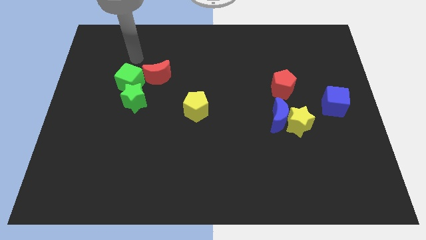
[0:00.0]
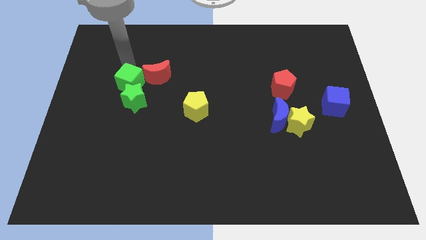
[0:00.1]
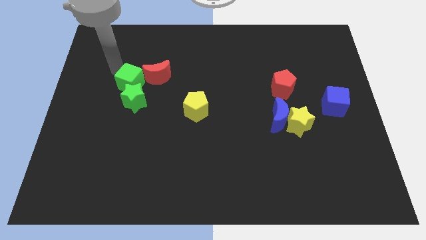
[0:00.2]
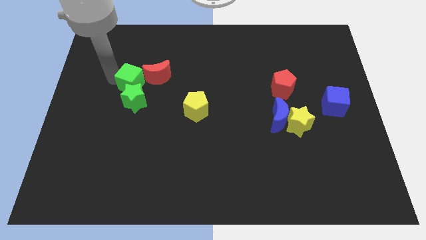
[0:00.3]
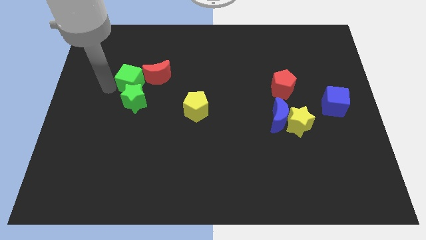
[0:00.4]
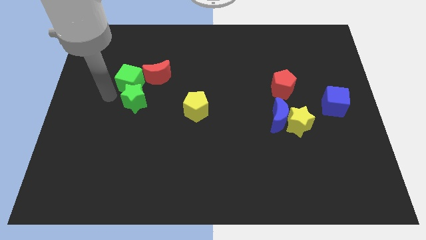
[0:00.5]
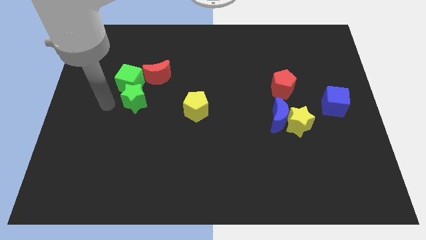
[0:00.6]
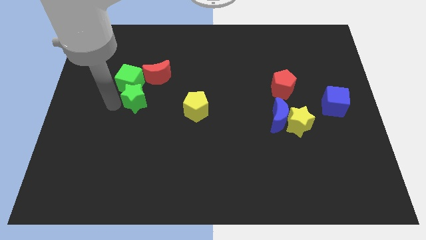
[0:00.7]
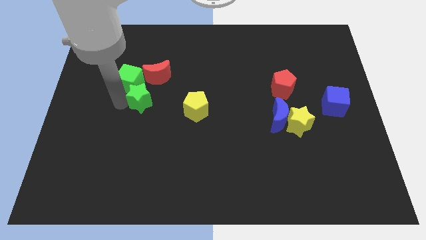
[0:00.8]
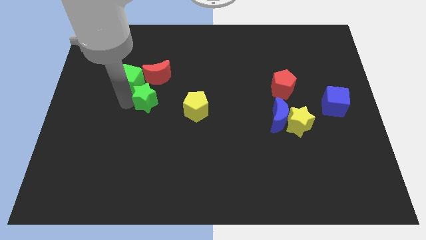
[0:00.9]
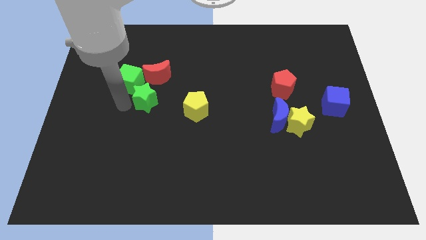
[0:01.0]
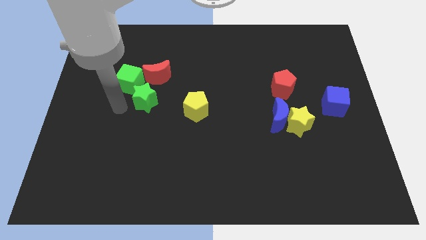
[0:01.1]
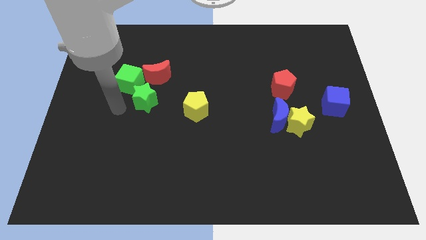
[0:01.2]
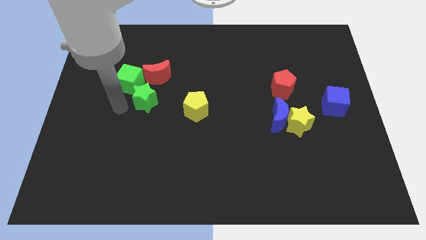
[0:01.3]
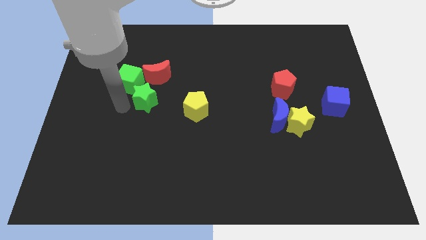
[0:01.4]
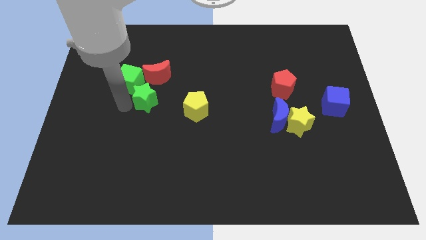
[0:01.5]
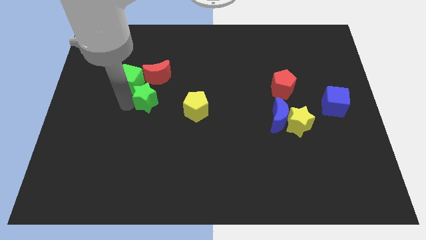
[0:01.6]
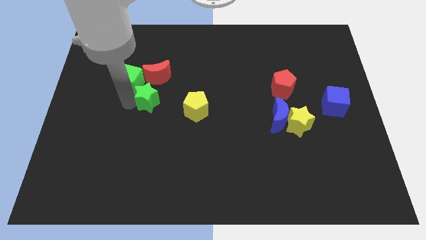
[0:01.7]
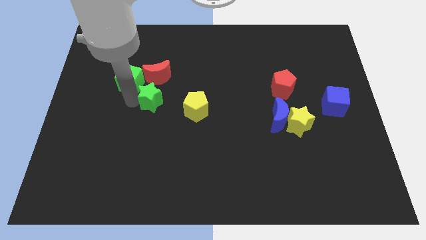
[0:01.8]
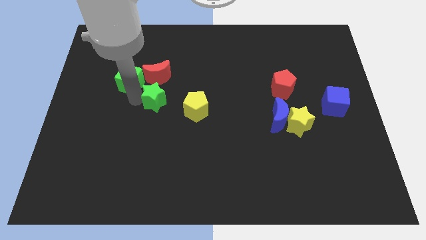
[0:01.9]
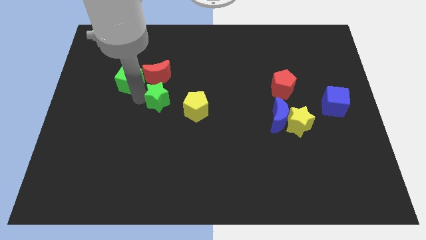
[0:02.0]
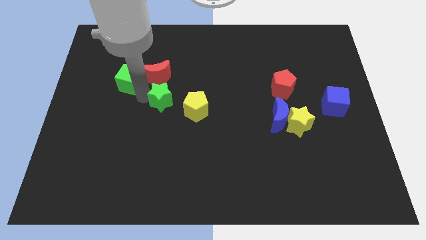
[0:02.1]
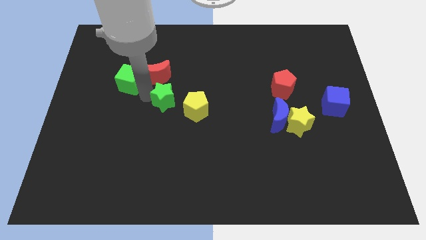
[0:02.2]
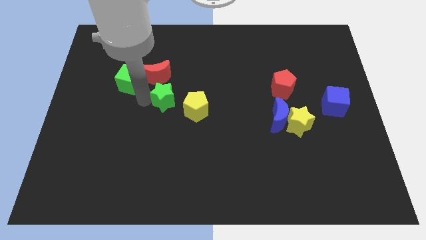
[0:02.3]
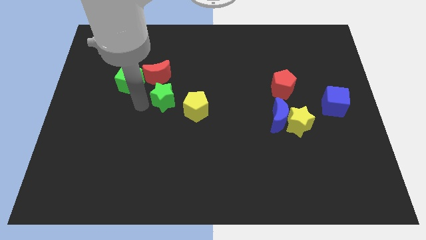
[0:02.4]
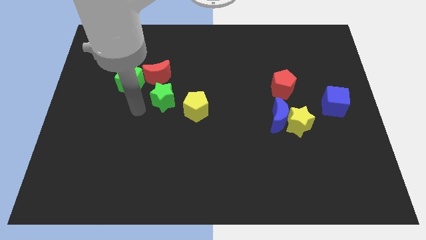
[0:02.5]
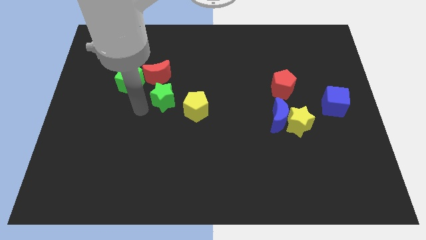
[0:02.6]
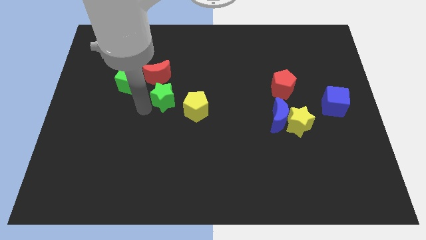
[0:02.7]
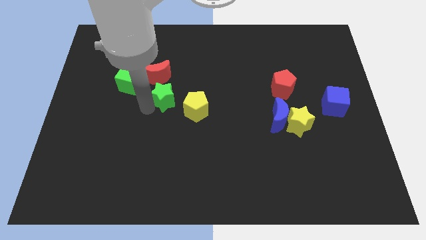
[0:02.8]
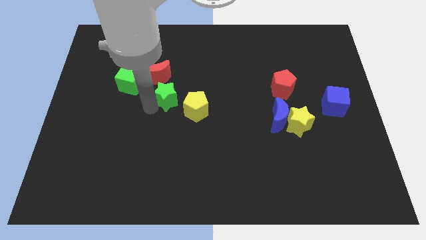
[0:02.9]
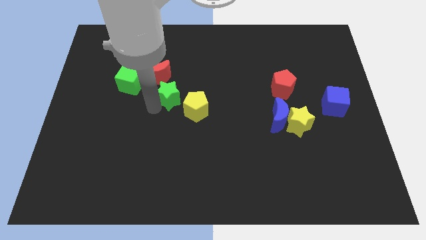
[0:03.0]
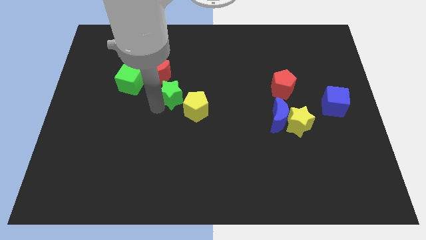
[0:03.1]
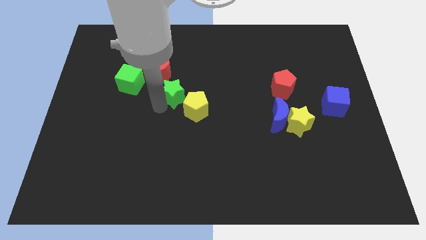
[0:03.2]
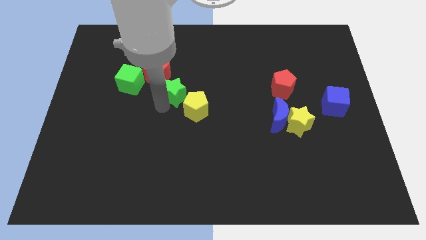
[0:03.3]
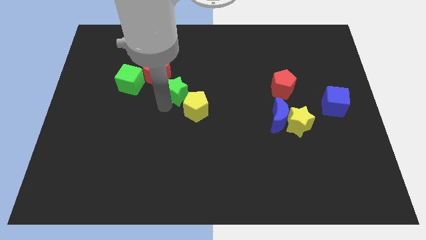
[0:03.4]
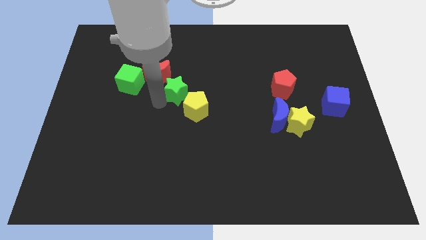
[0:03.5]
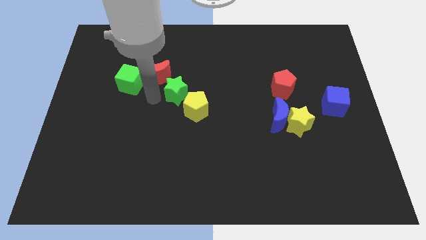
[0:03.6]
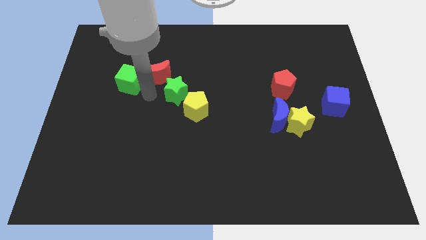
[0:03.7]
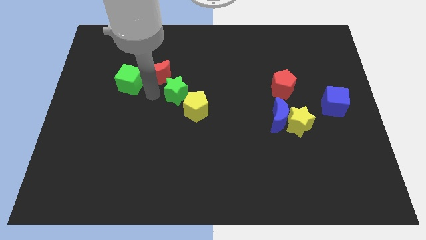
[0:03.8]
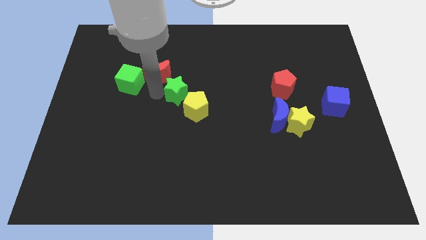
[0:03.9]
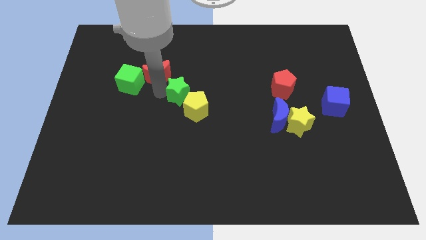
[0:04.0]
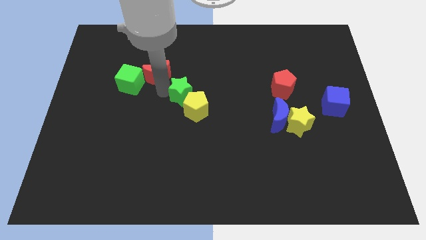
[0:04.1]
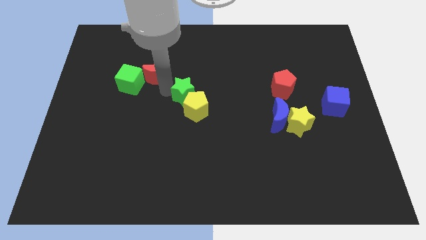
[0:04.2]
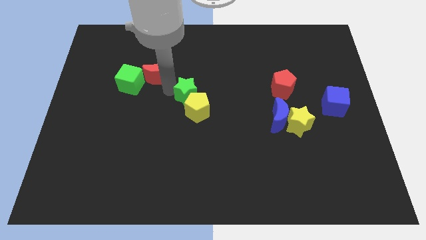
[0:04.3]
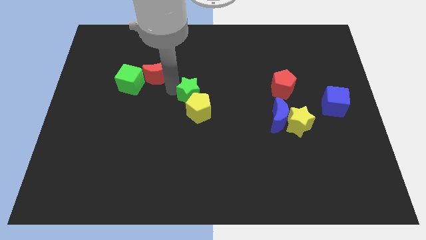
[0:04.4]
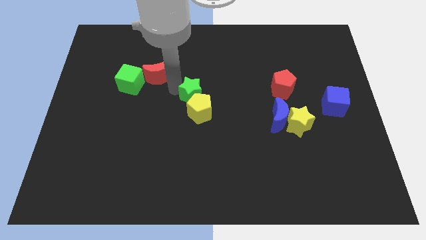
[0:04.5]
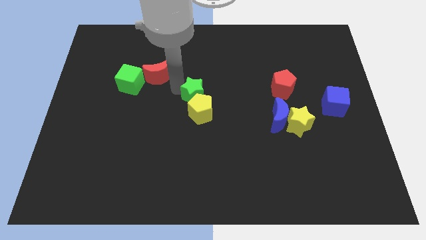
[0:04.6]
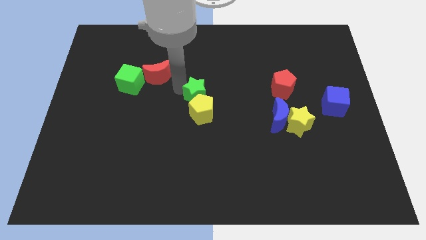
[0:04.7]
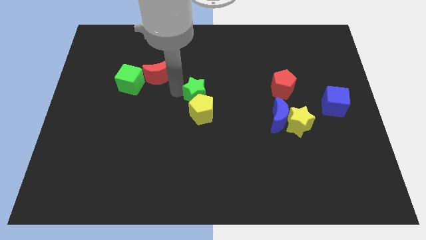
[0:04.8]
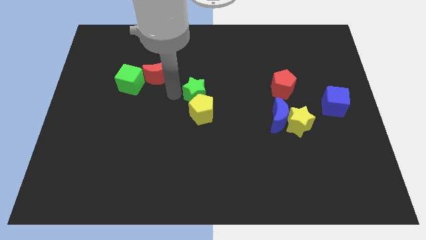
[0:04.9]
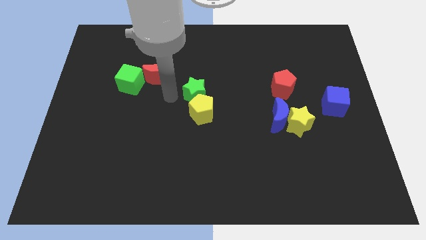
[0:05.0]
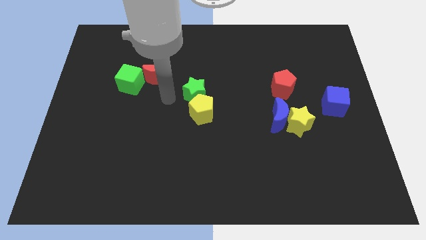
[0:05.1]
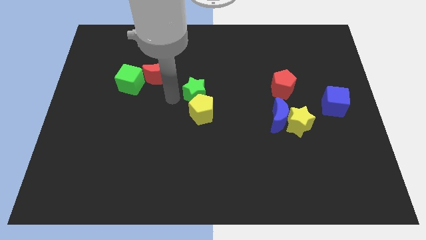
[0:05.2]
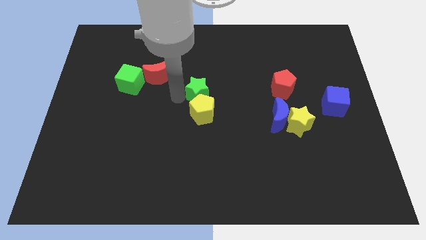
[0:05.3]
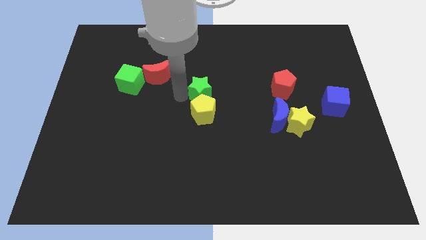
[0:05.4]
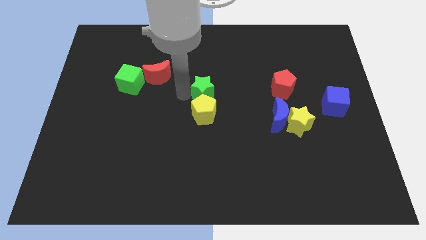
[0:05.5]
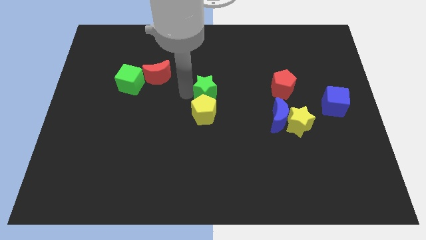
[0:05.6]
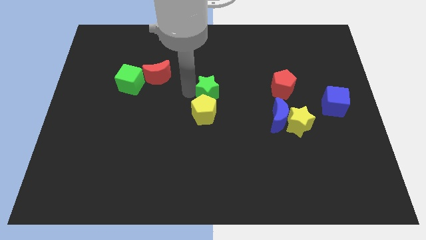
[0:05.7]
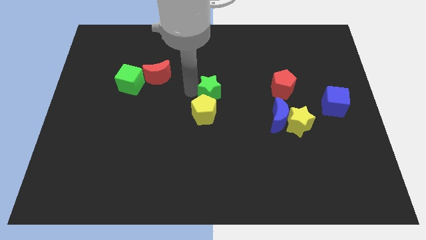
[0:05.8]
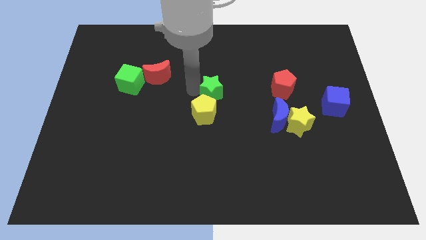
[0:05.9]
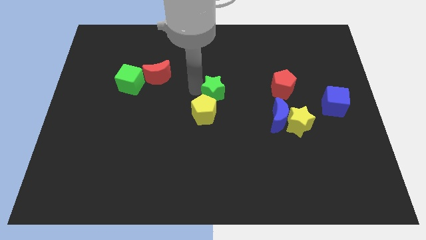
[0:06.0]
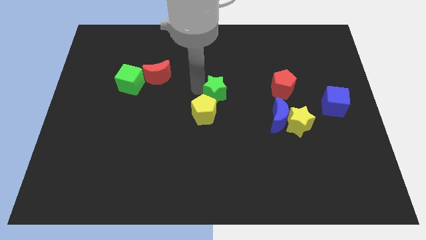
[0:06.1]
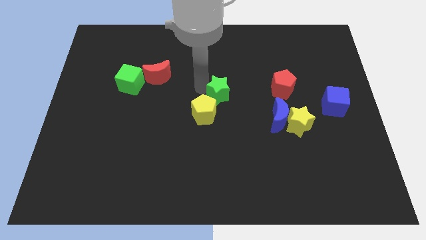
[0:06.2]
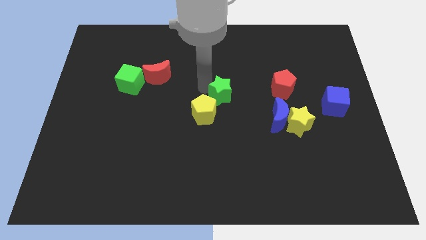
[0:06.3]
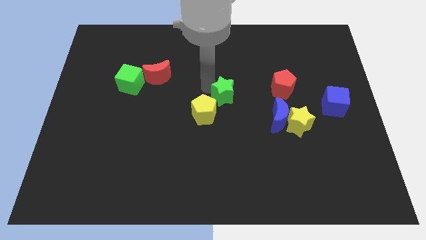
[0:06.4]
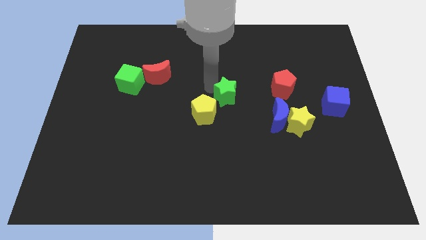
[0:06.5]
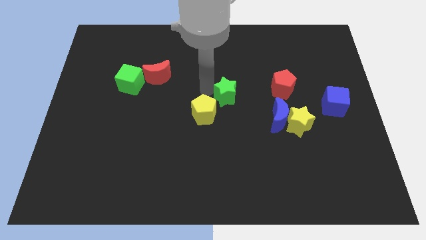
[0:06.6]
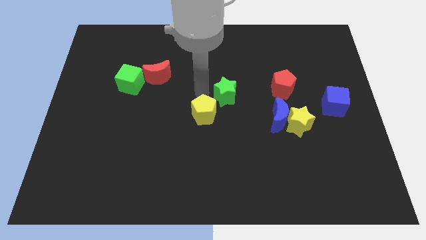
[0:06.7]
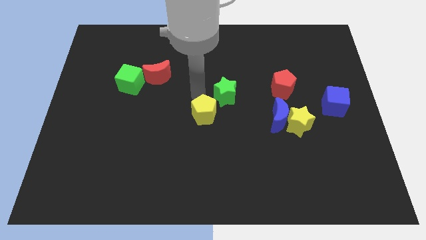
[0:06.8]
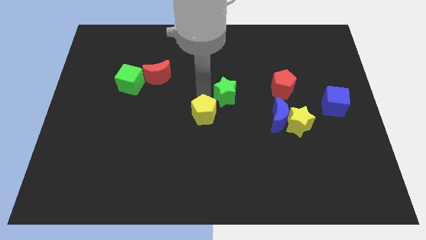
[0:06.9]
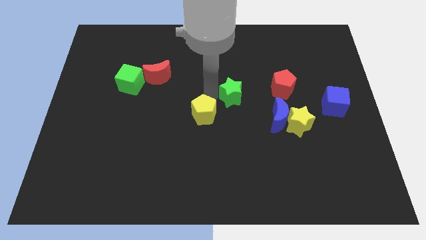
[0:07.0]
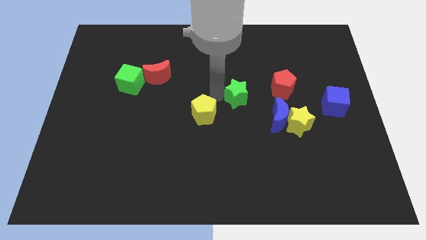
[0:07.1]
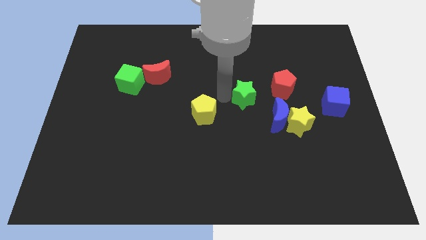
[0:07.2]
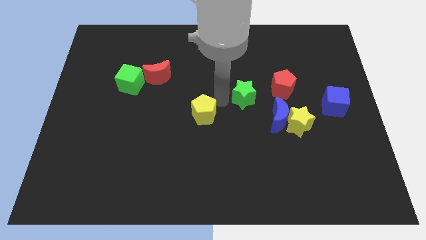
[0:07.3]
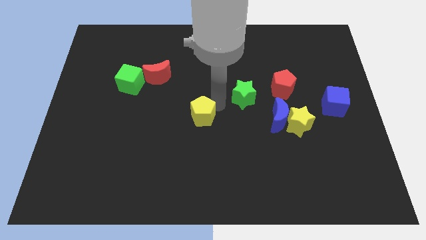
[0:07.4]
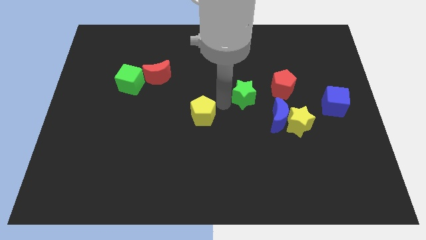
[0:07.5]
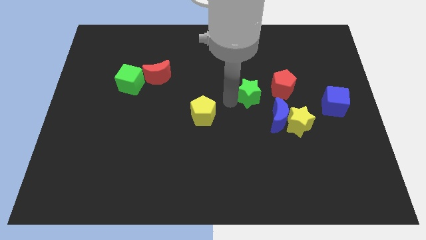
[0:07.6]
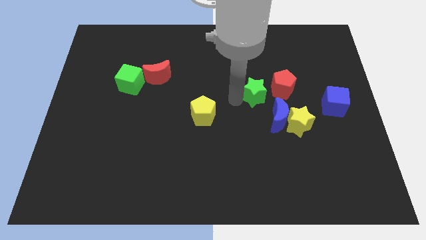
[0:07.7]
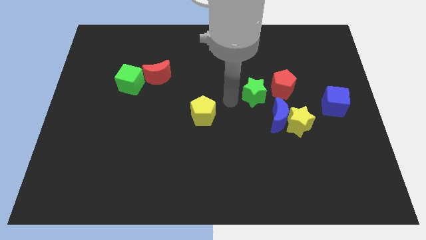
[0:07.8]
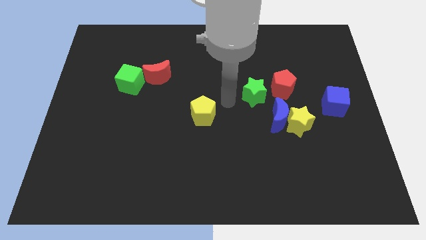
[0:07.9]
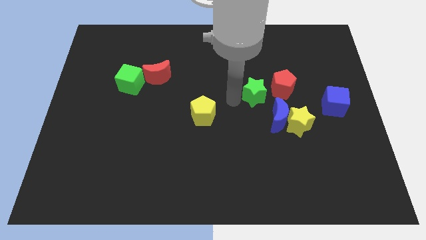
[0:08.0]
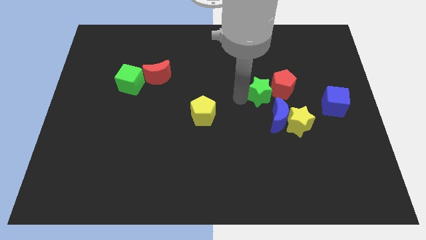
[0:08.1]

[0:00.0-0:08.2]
push the green star to the red pentagon
